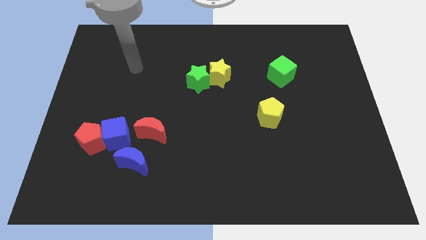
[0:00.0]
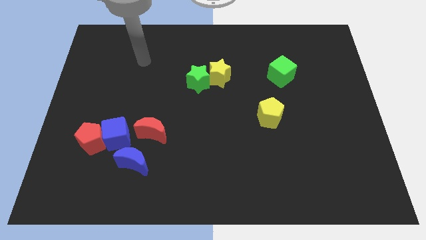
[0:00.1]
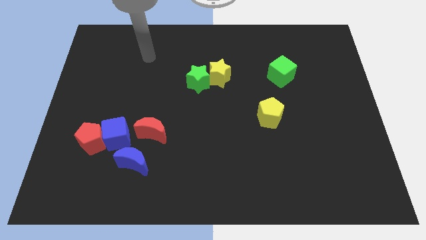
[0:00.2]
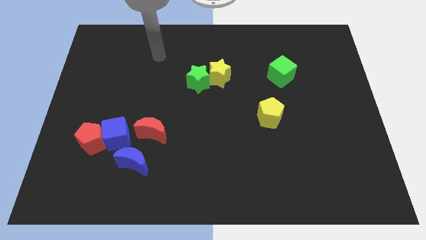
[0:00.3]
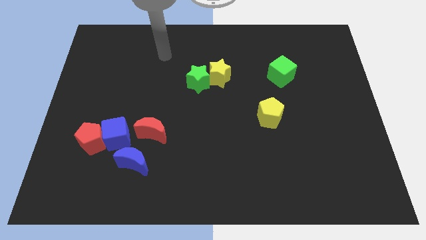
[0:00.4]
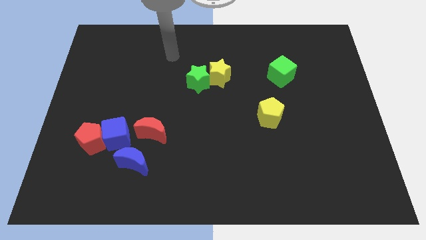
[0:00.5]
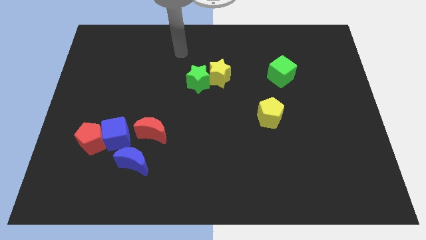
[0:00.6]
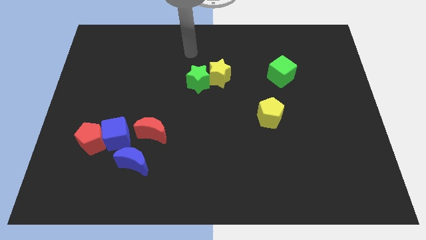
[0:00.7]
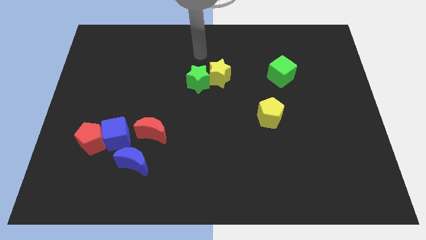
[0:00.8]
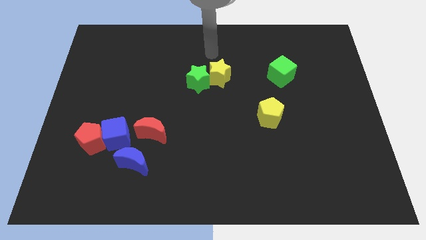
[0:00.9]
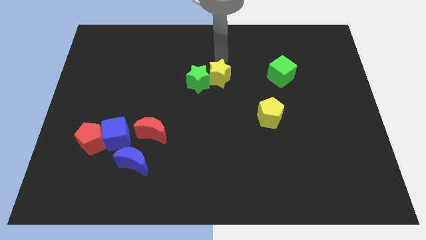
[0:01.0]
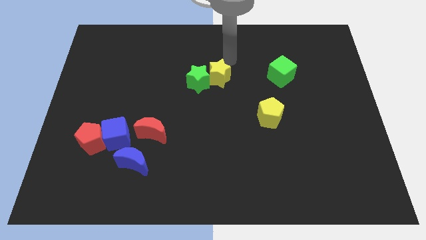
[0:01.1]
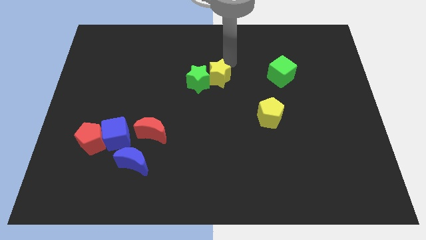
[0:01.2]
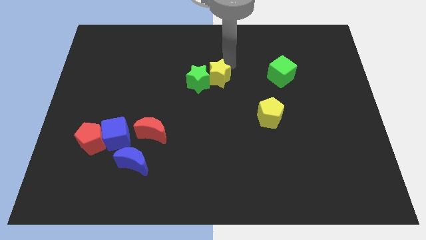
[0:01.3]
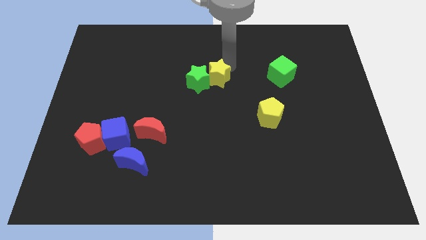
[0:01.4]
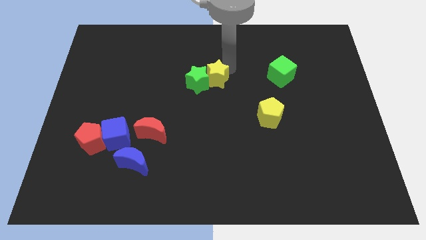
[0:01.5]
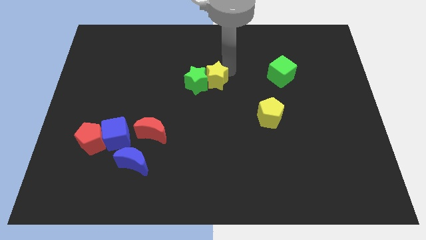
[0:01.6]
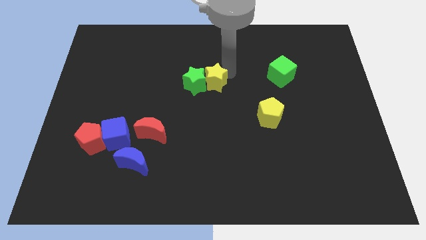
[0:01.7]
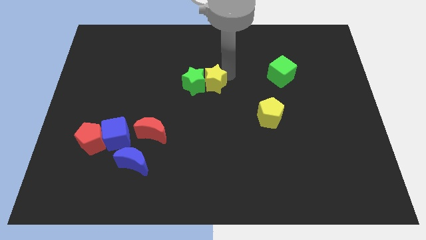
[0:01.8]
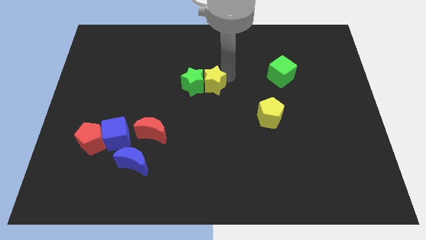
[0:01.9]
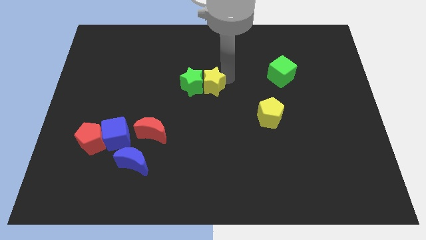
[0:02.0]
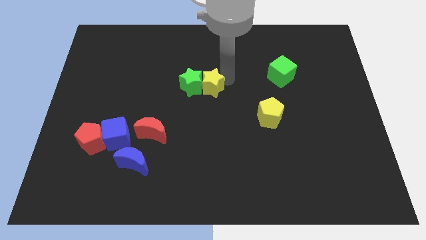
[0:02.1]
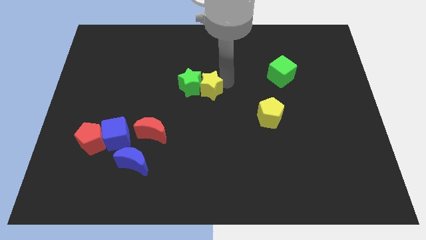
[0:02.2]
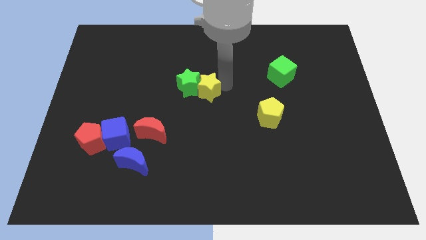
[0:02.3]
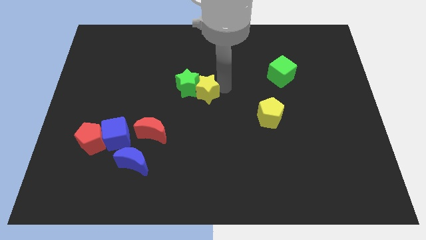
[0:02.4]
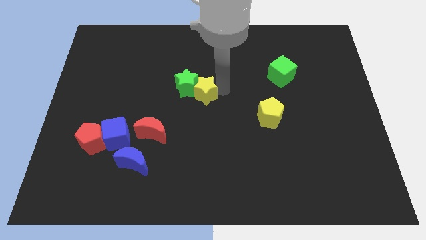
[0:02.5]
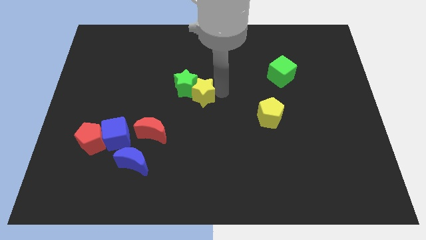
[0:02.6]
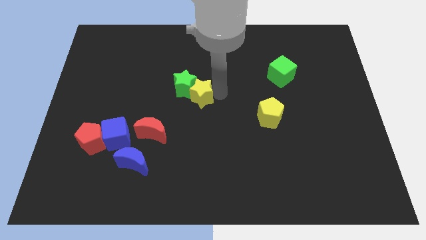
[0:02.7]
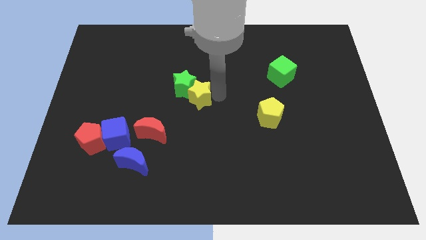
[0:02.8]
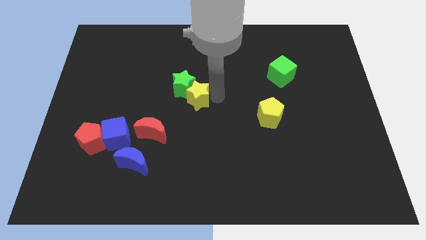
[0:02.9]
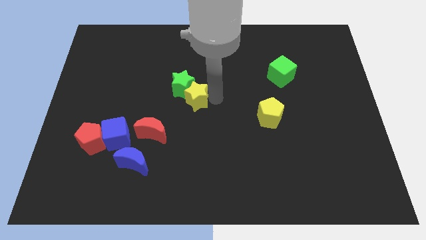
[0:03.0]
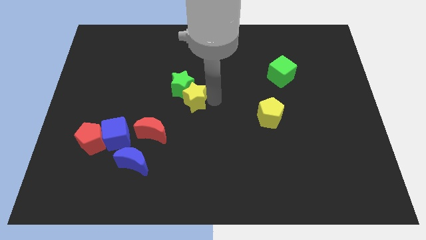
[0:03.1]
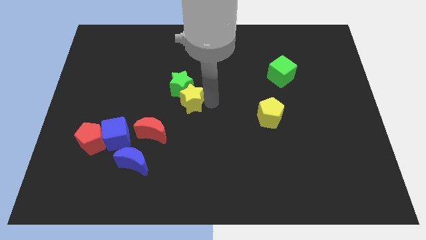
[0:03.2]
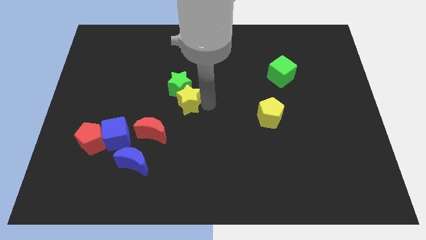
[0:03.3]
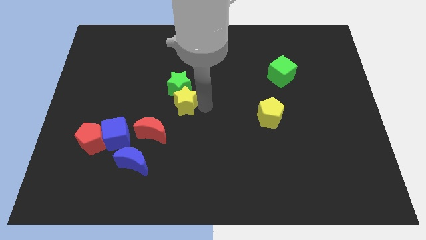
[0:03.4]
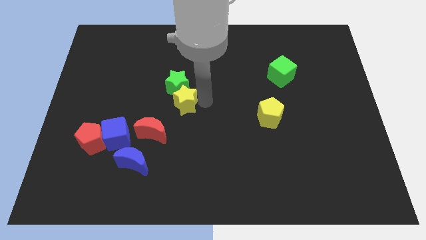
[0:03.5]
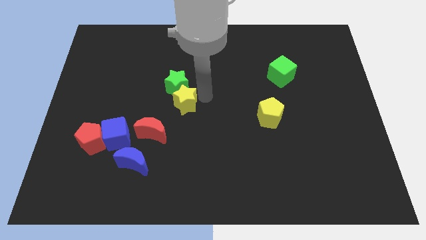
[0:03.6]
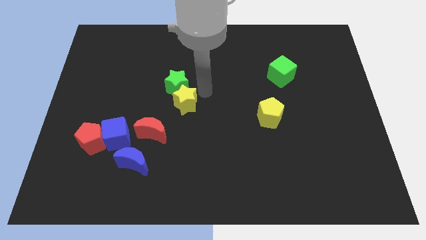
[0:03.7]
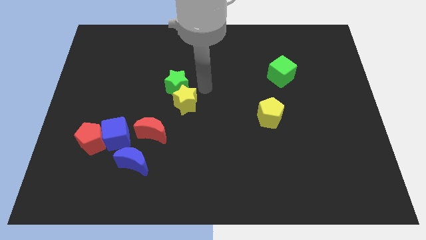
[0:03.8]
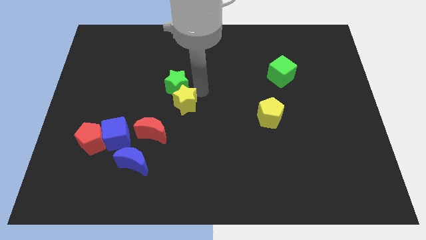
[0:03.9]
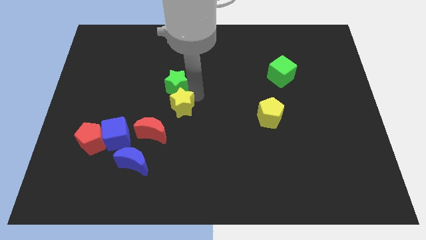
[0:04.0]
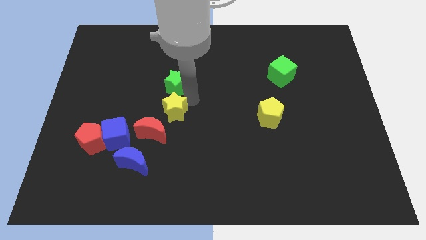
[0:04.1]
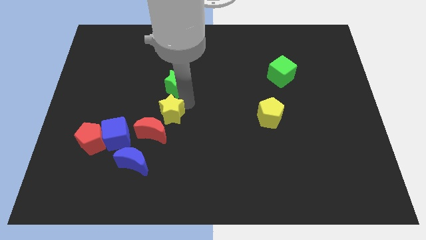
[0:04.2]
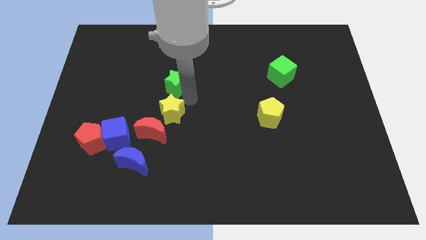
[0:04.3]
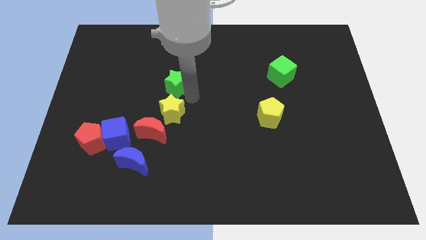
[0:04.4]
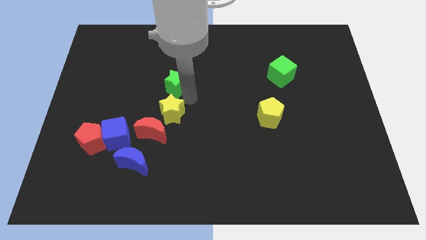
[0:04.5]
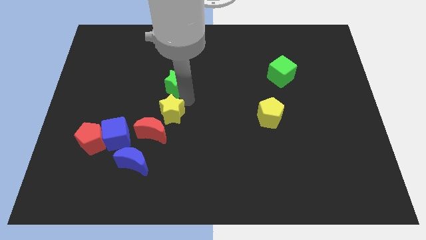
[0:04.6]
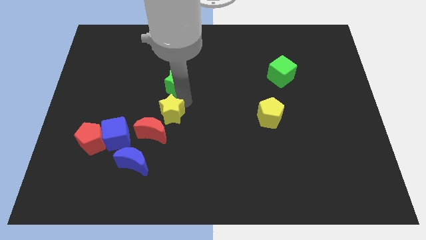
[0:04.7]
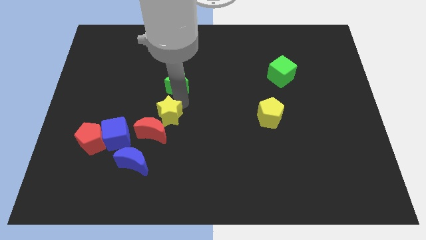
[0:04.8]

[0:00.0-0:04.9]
put the yellow star towards the red moon

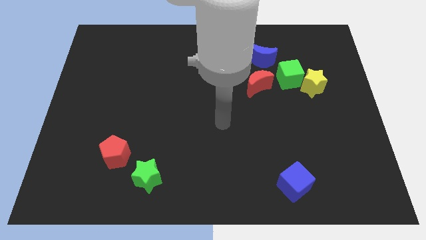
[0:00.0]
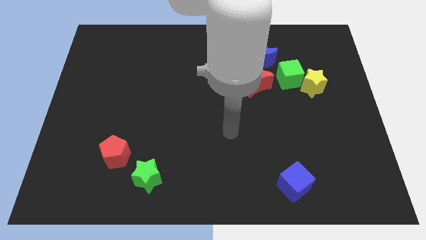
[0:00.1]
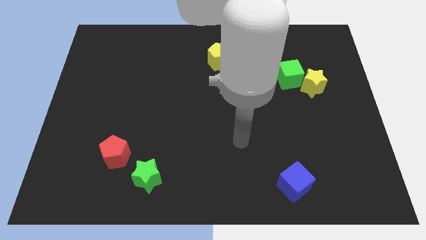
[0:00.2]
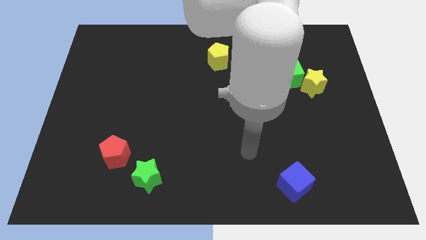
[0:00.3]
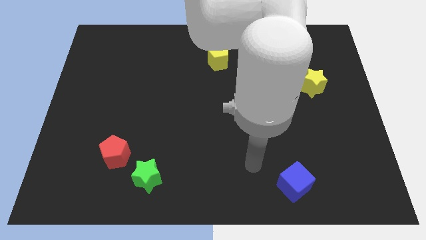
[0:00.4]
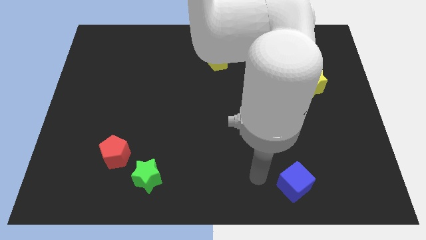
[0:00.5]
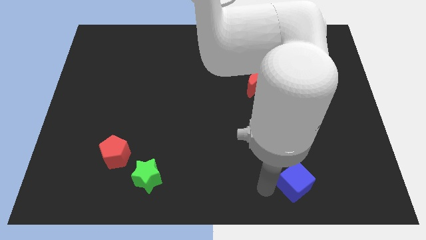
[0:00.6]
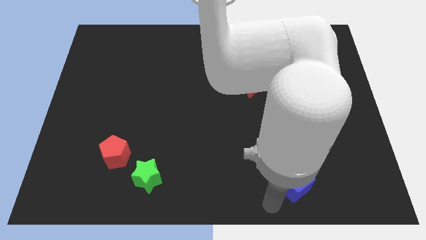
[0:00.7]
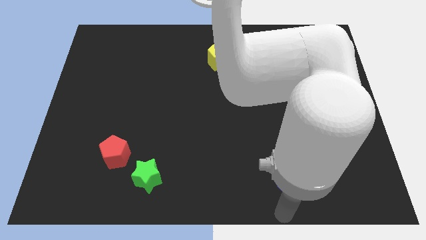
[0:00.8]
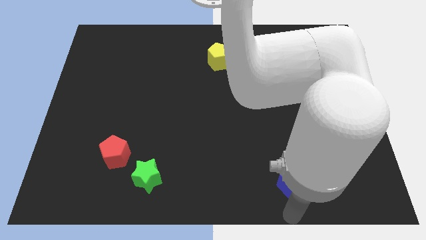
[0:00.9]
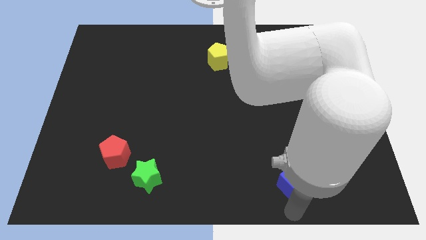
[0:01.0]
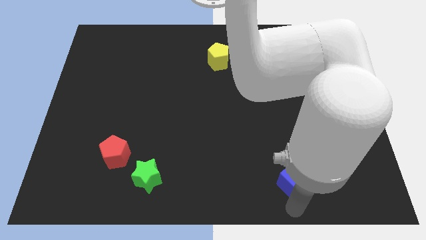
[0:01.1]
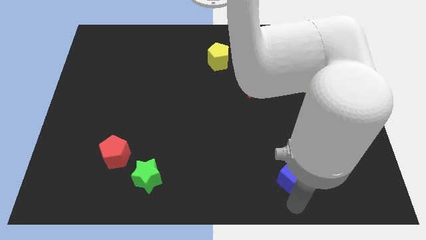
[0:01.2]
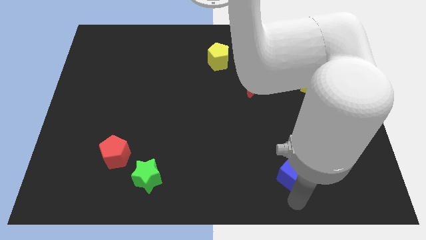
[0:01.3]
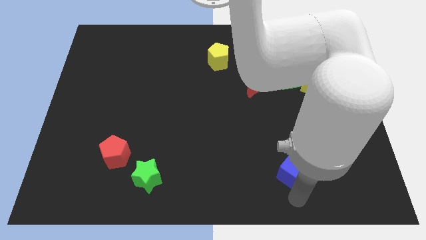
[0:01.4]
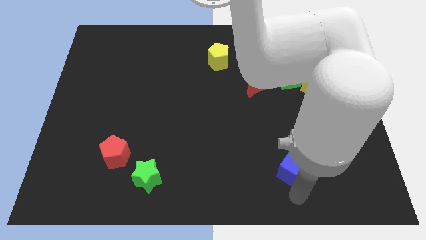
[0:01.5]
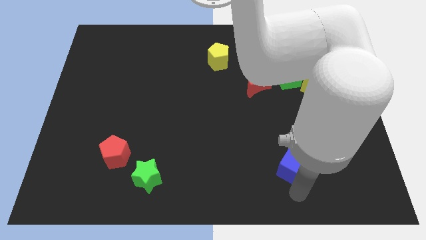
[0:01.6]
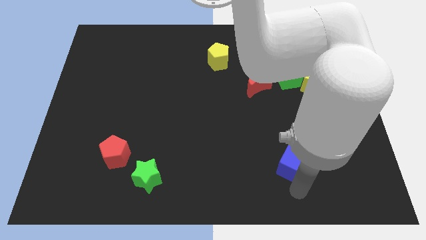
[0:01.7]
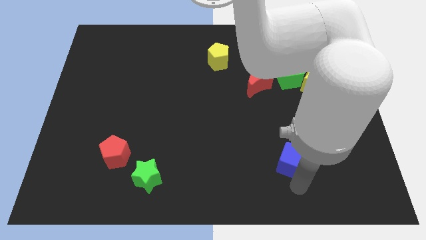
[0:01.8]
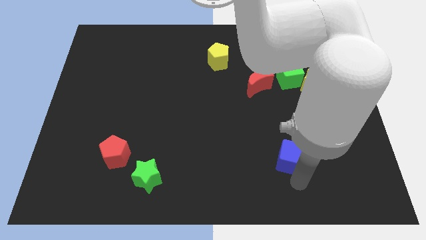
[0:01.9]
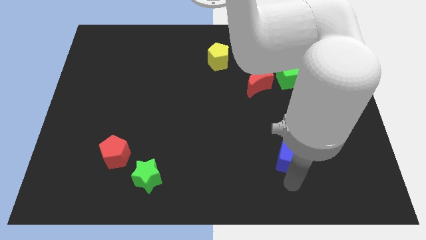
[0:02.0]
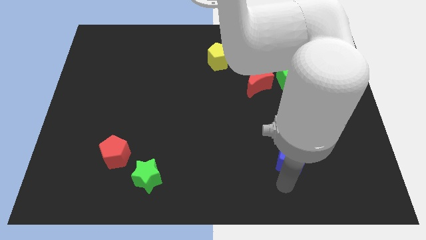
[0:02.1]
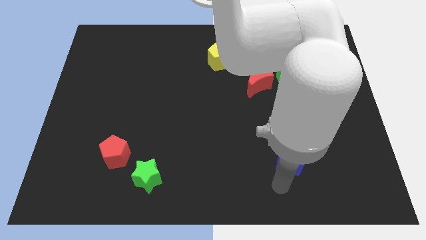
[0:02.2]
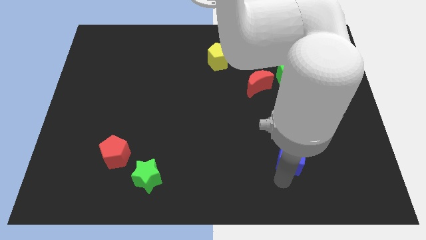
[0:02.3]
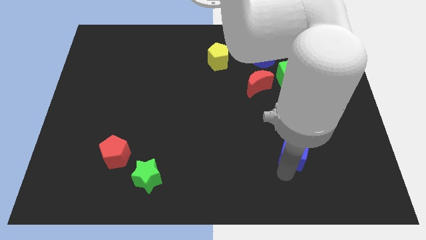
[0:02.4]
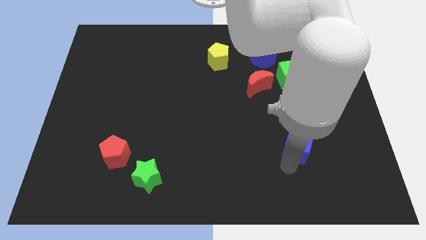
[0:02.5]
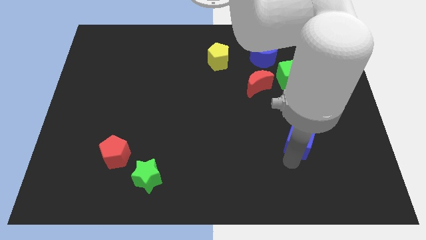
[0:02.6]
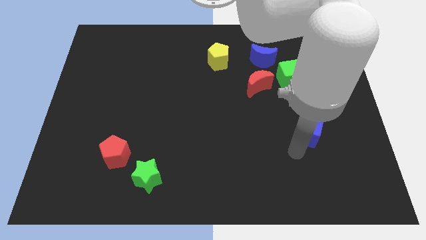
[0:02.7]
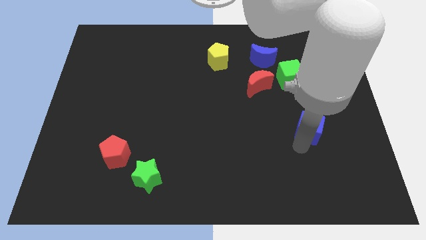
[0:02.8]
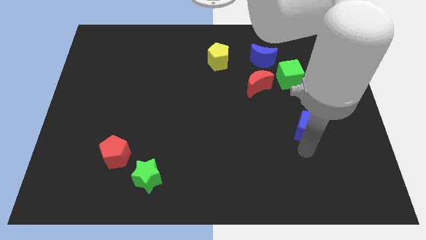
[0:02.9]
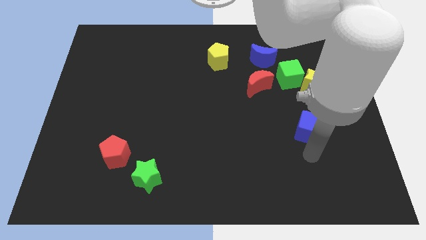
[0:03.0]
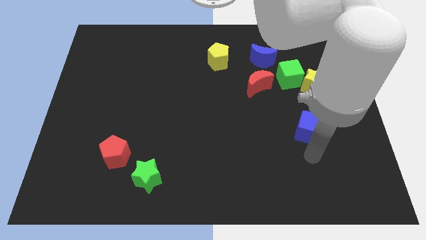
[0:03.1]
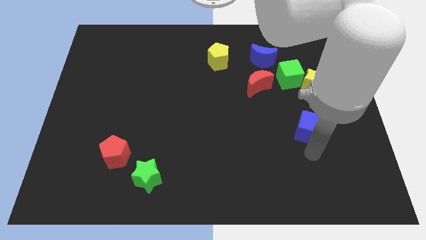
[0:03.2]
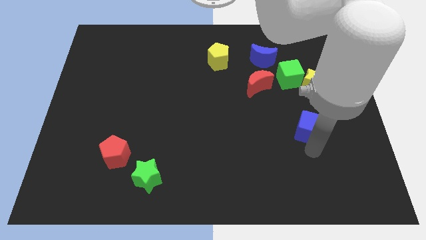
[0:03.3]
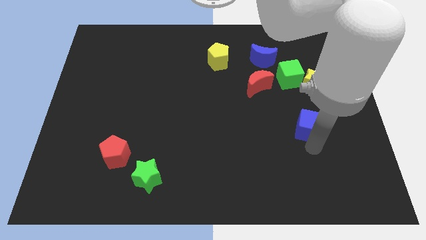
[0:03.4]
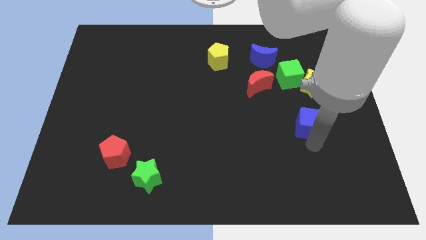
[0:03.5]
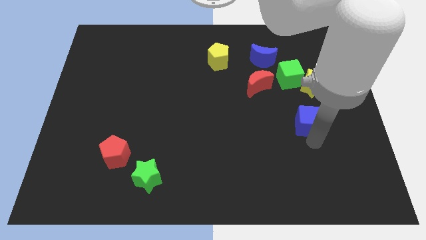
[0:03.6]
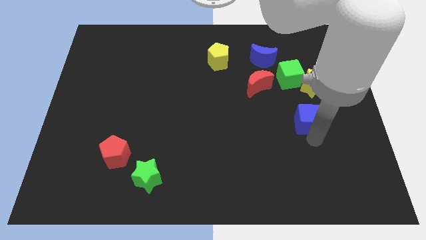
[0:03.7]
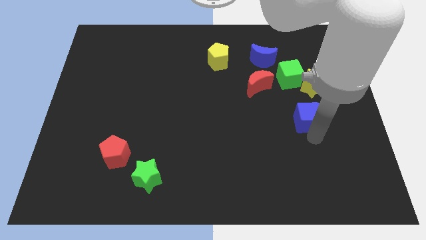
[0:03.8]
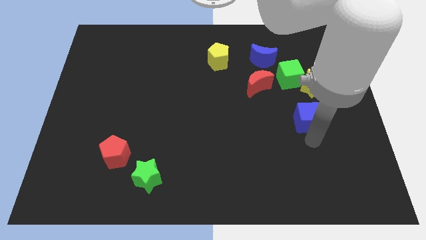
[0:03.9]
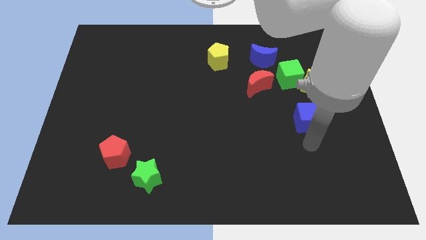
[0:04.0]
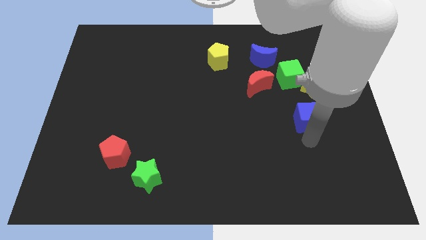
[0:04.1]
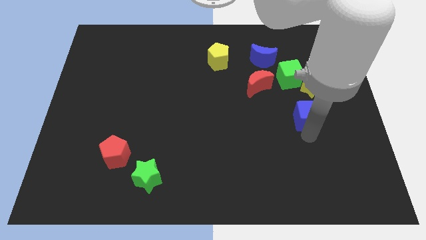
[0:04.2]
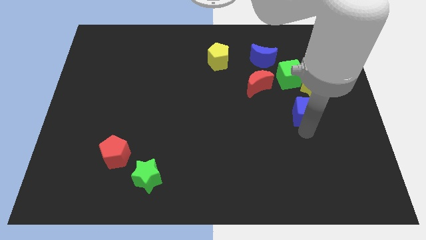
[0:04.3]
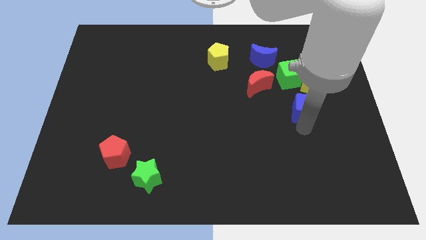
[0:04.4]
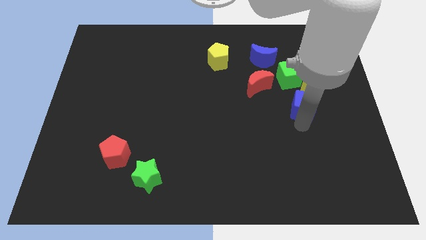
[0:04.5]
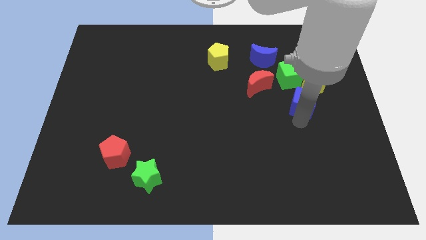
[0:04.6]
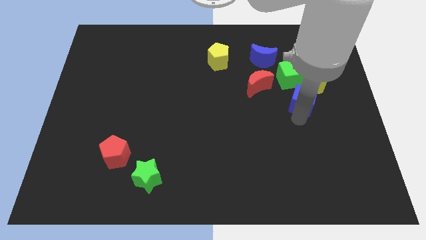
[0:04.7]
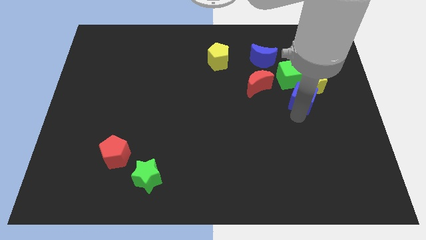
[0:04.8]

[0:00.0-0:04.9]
put the blue cube towards the yellow star
